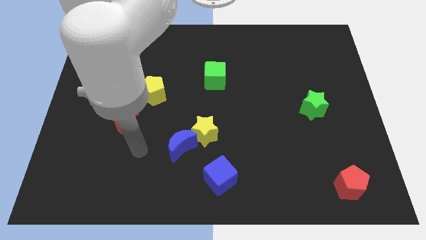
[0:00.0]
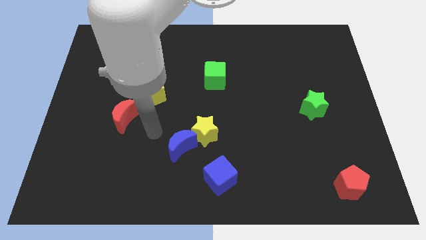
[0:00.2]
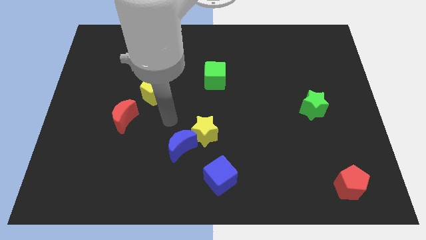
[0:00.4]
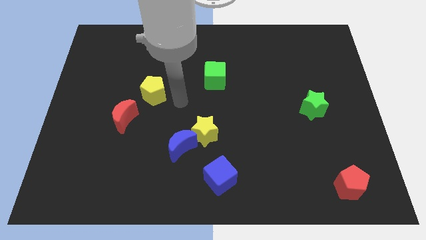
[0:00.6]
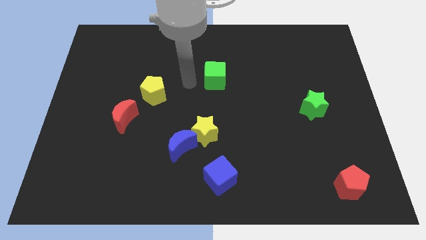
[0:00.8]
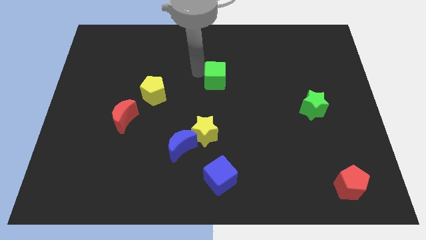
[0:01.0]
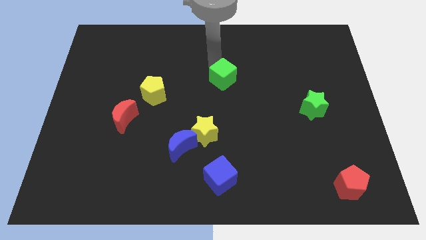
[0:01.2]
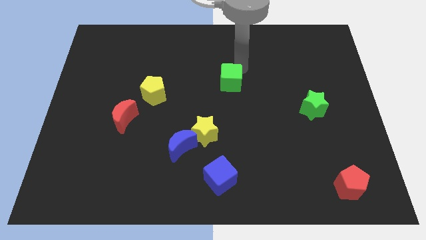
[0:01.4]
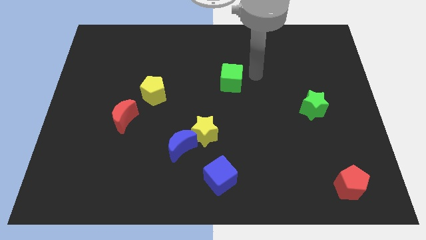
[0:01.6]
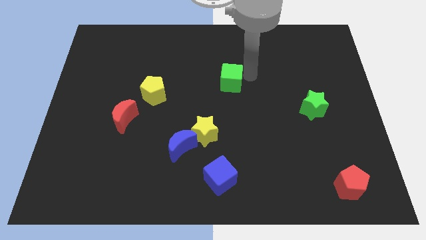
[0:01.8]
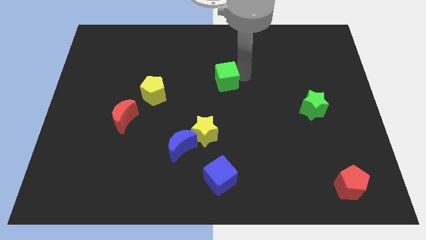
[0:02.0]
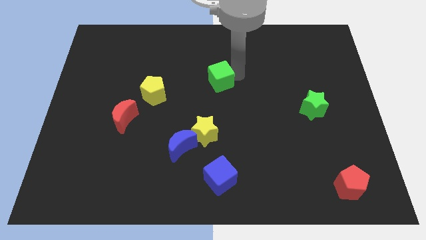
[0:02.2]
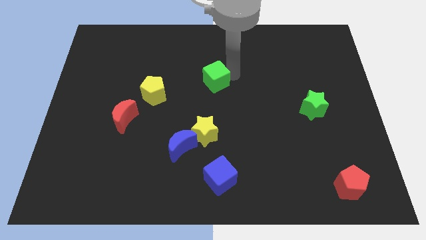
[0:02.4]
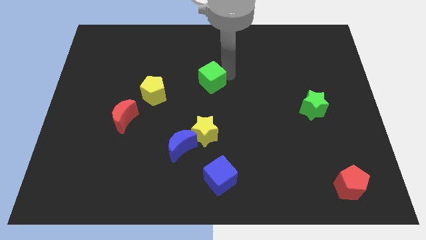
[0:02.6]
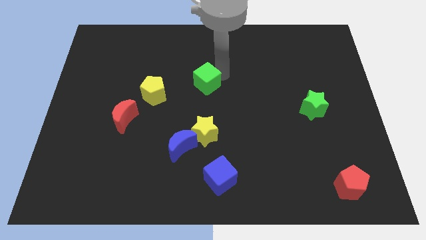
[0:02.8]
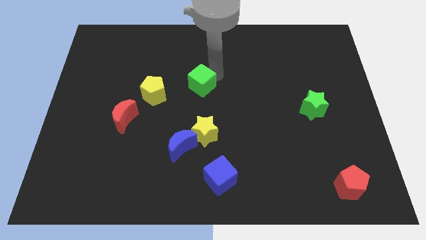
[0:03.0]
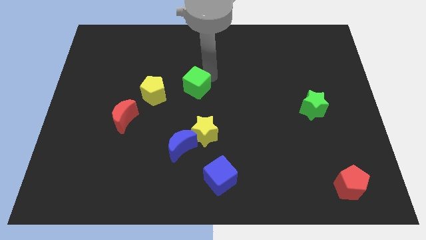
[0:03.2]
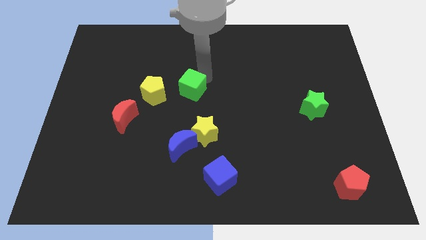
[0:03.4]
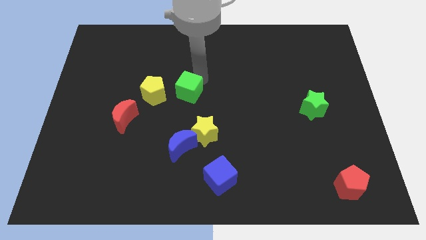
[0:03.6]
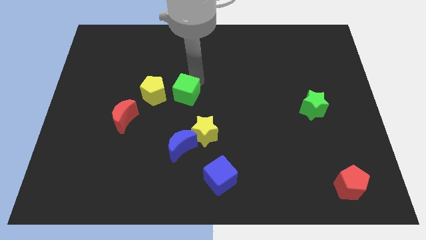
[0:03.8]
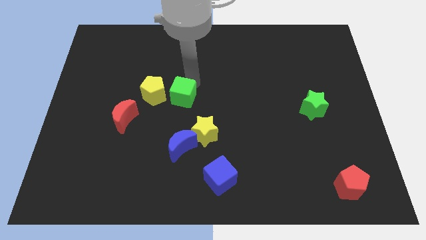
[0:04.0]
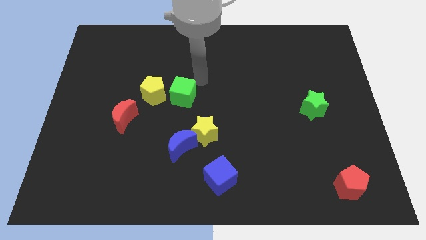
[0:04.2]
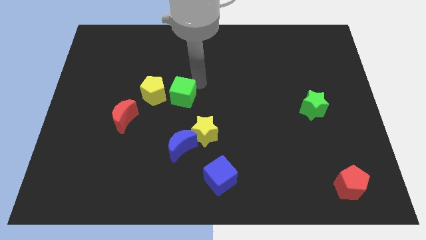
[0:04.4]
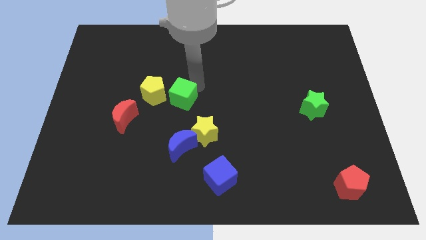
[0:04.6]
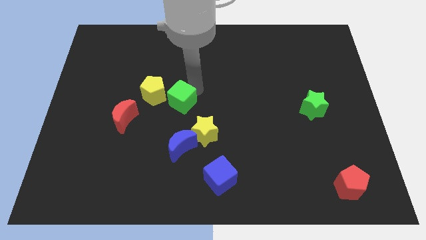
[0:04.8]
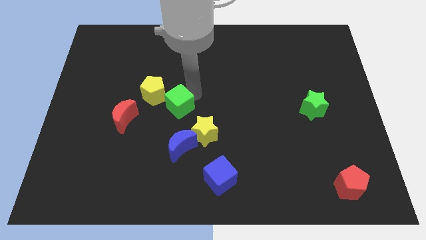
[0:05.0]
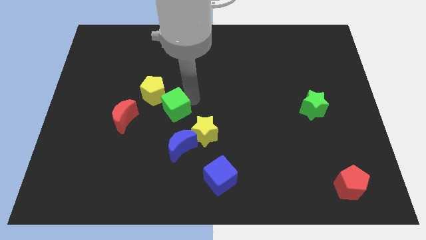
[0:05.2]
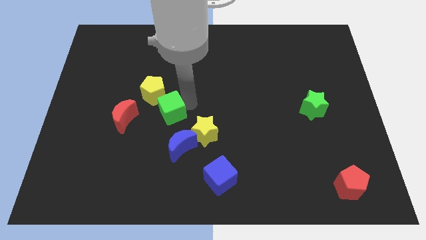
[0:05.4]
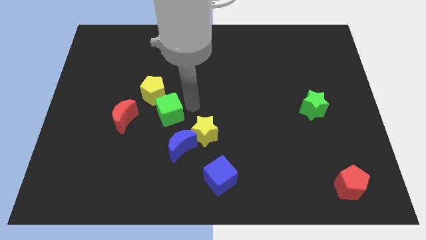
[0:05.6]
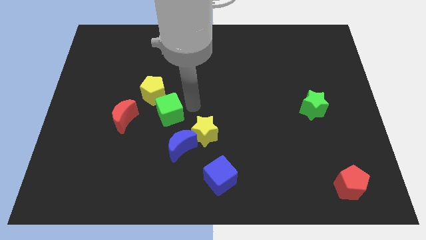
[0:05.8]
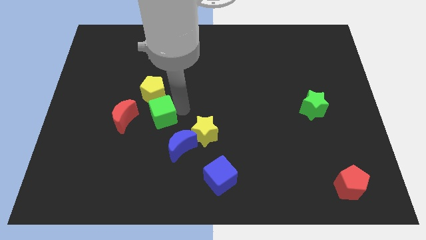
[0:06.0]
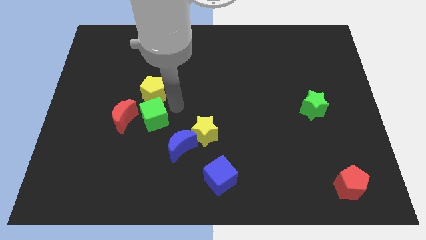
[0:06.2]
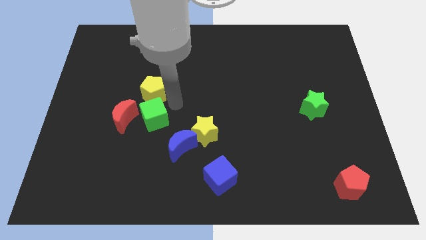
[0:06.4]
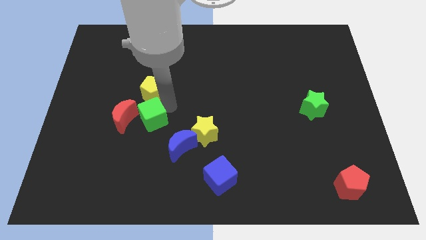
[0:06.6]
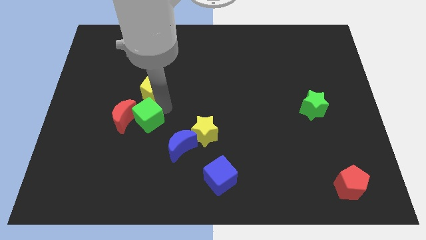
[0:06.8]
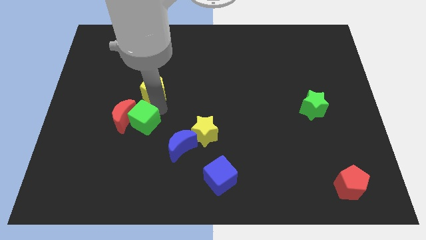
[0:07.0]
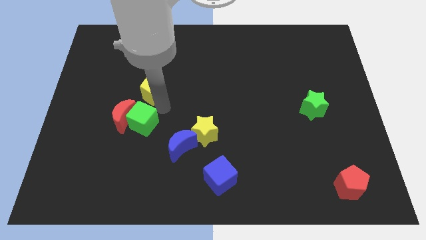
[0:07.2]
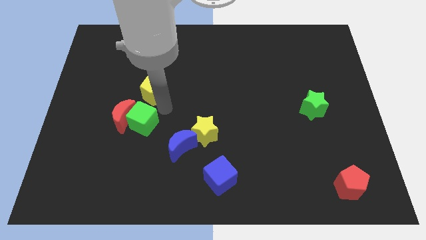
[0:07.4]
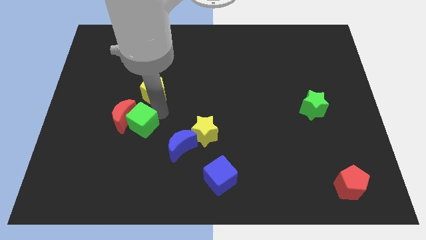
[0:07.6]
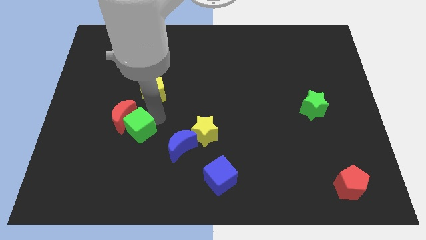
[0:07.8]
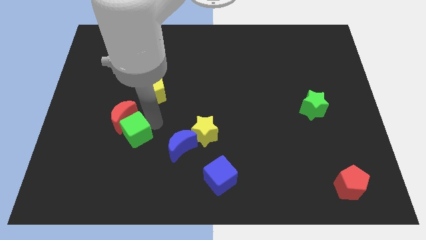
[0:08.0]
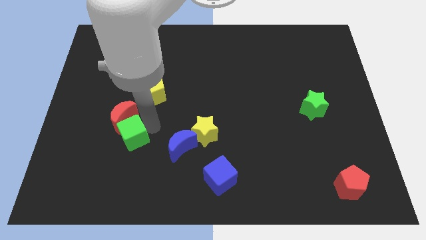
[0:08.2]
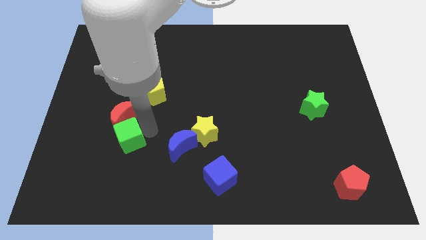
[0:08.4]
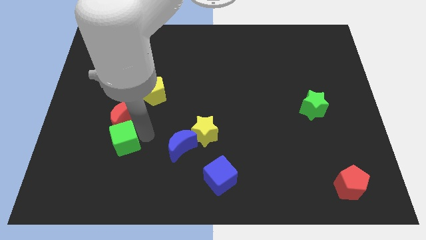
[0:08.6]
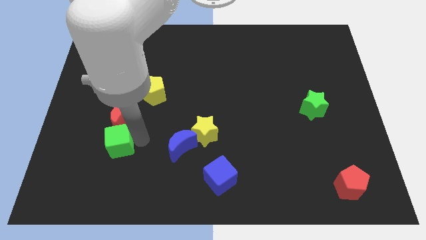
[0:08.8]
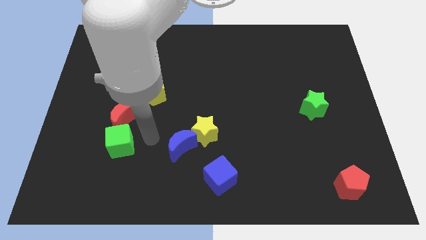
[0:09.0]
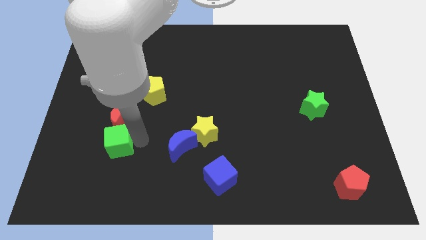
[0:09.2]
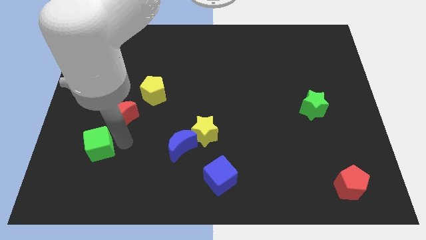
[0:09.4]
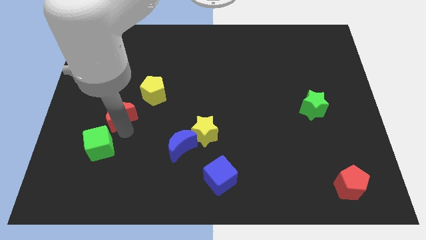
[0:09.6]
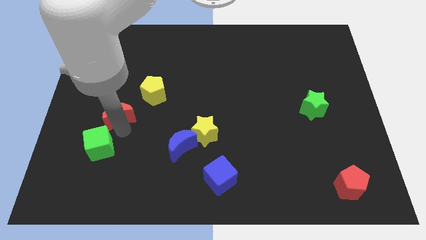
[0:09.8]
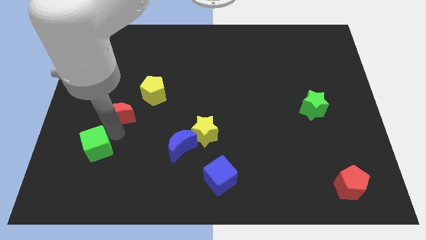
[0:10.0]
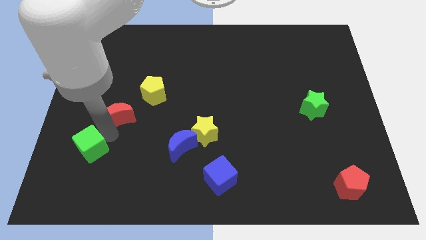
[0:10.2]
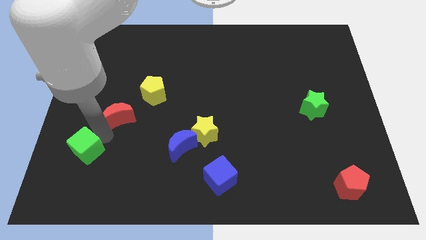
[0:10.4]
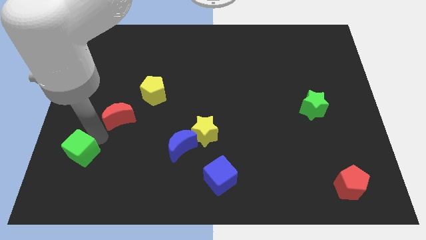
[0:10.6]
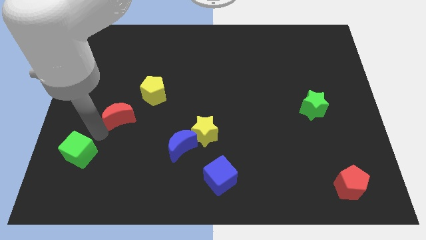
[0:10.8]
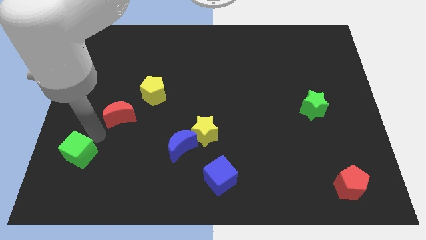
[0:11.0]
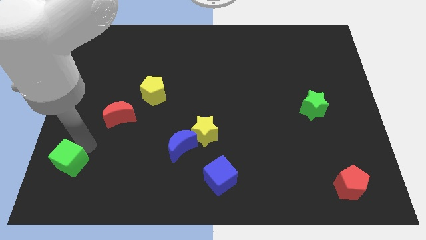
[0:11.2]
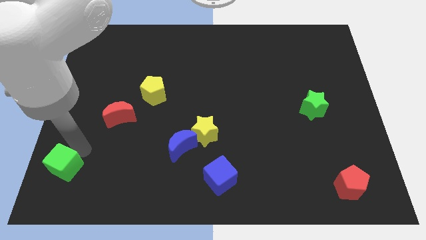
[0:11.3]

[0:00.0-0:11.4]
move the green cube to the bottom left corner

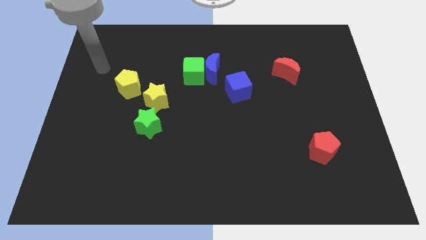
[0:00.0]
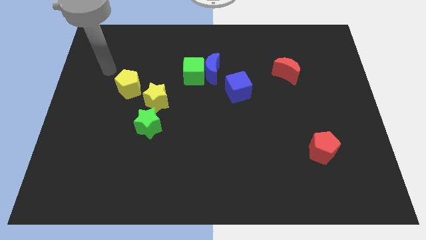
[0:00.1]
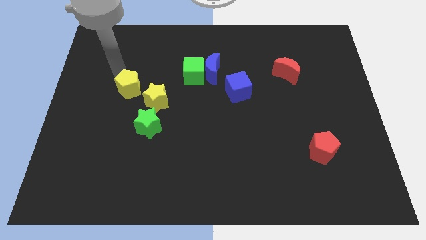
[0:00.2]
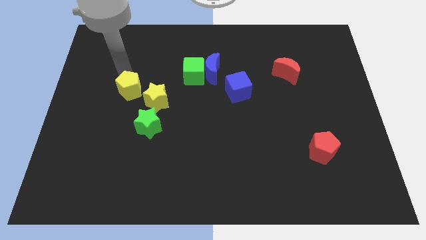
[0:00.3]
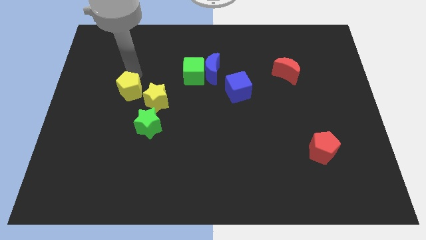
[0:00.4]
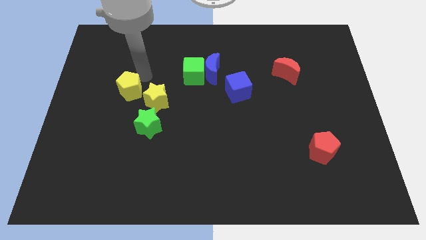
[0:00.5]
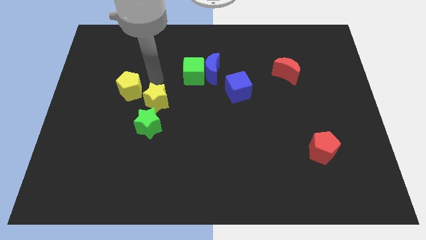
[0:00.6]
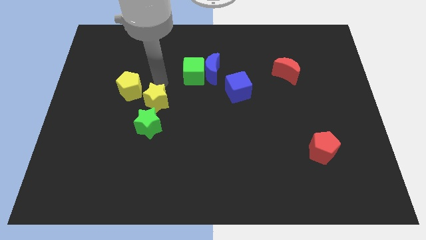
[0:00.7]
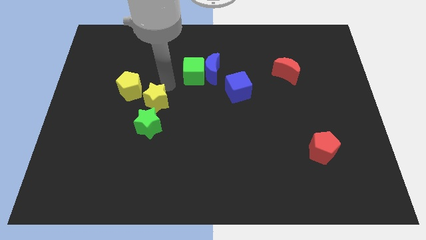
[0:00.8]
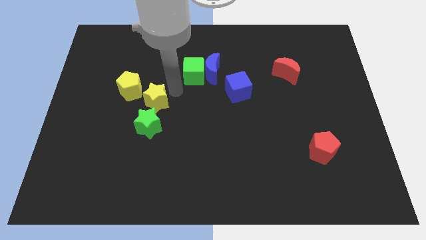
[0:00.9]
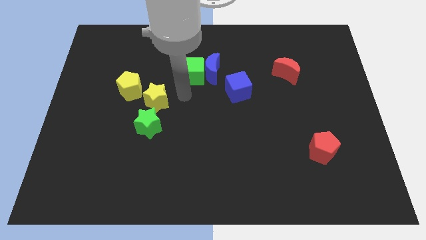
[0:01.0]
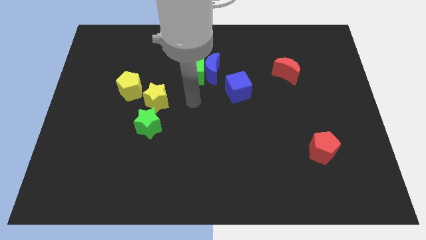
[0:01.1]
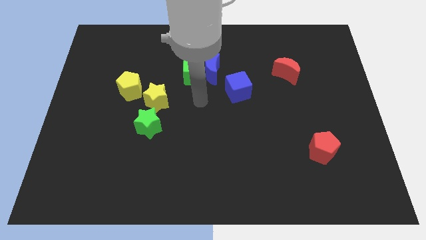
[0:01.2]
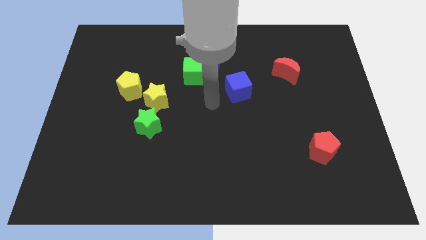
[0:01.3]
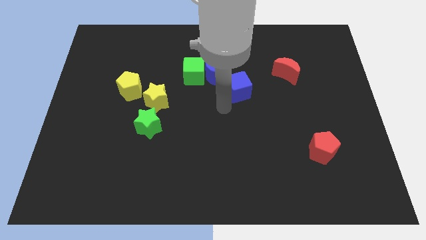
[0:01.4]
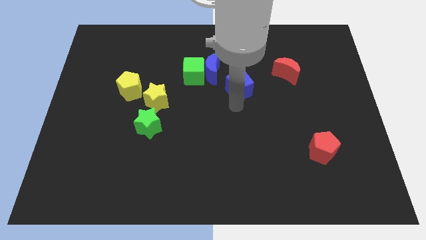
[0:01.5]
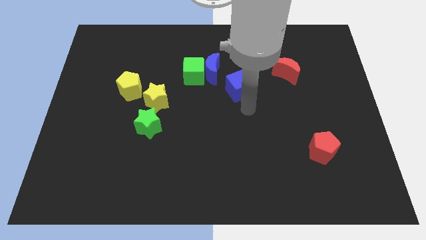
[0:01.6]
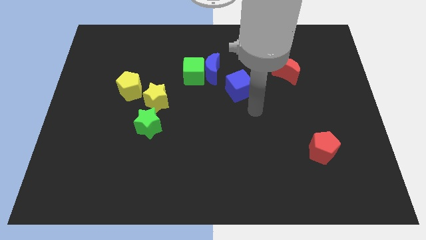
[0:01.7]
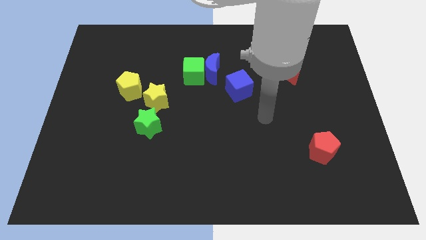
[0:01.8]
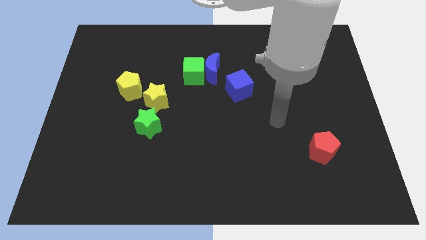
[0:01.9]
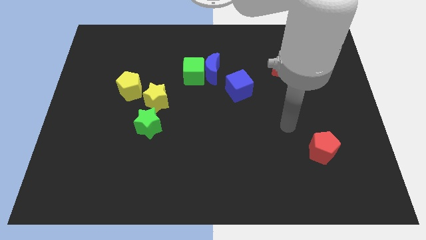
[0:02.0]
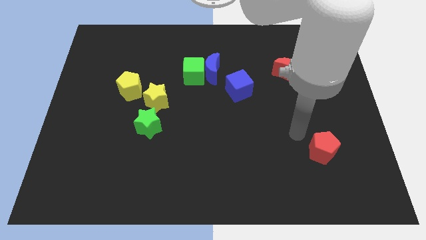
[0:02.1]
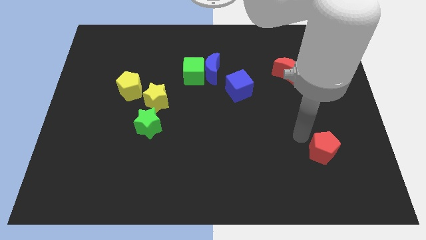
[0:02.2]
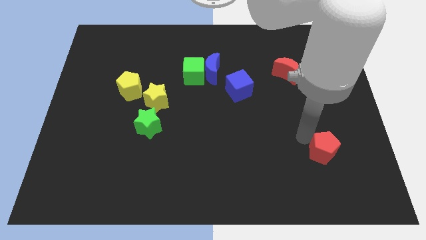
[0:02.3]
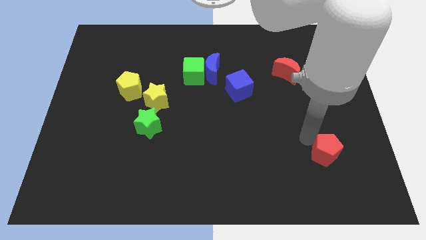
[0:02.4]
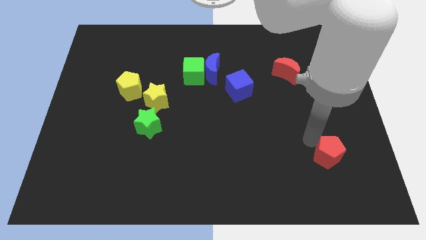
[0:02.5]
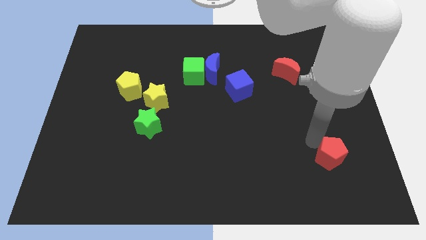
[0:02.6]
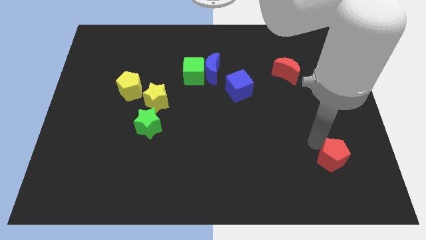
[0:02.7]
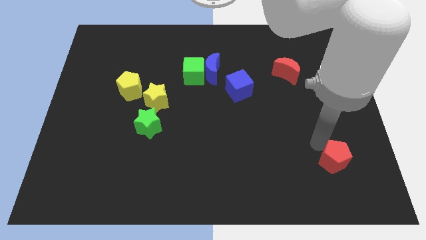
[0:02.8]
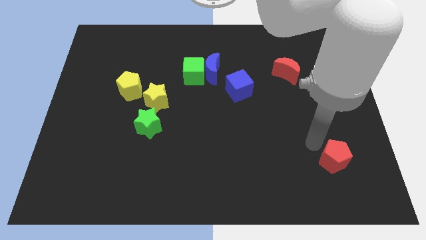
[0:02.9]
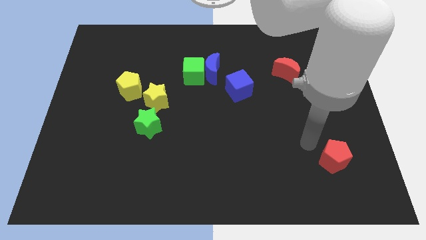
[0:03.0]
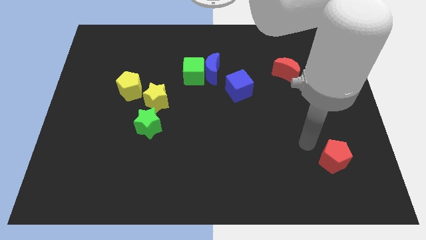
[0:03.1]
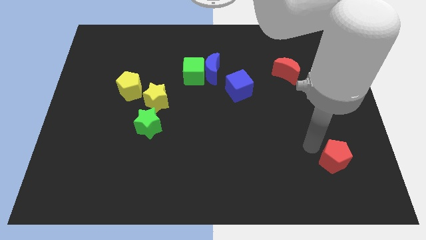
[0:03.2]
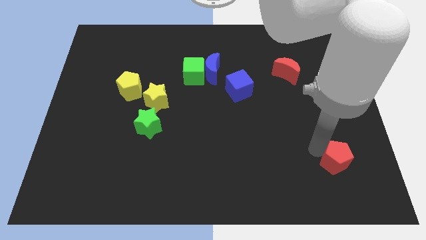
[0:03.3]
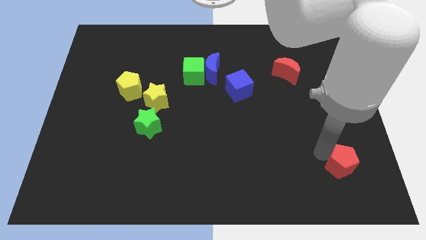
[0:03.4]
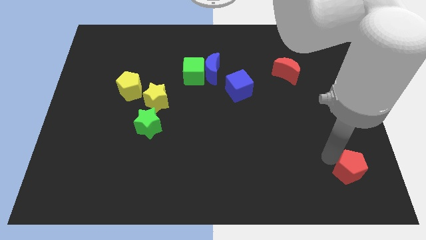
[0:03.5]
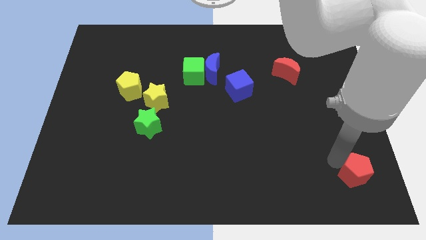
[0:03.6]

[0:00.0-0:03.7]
slide the red pentagon to the lower right corner
